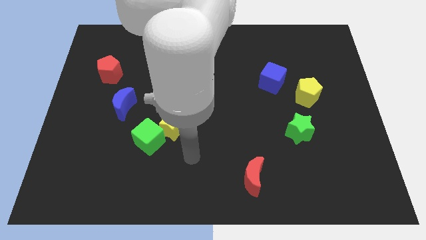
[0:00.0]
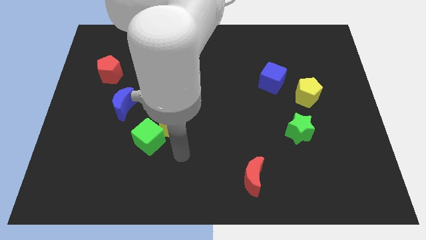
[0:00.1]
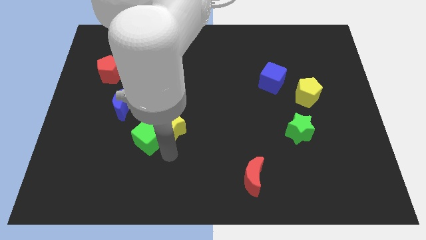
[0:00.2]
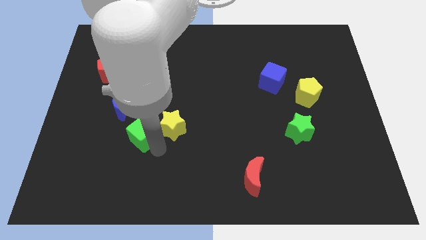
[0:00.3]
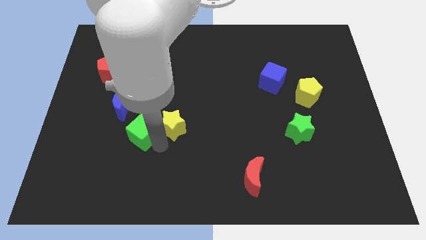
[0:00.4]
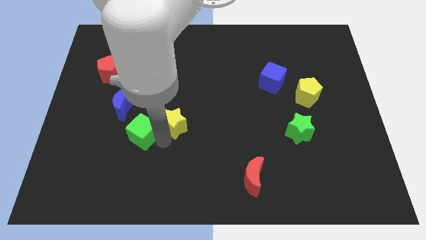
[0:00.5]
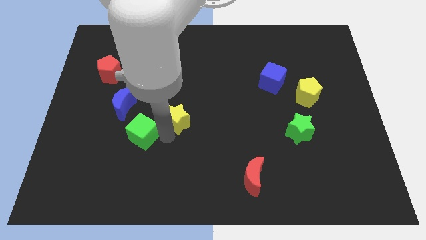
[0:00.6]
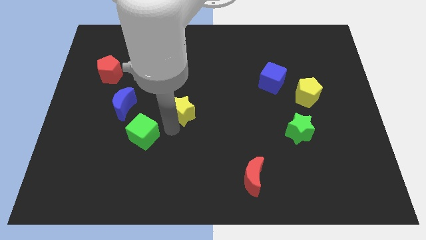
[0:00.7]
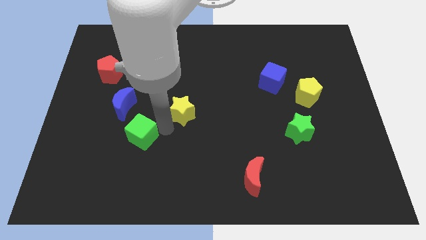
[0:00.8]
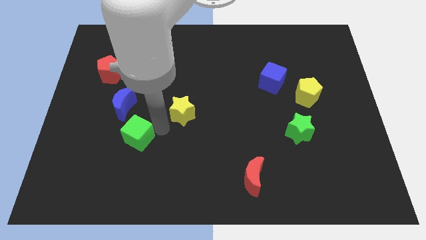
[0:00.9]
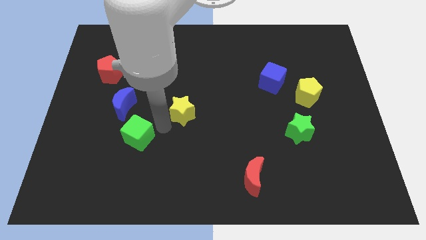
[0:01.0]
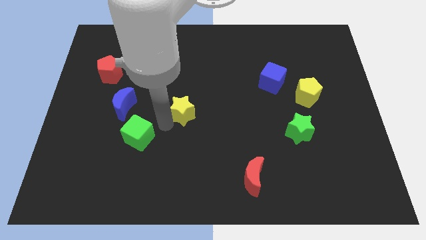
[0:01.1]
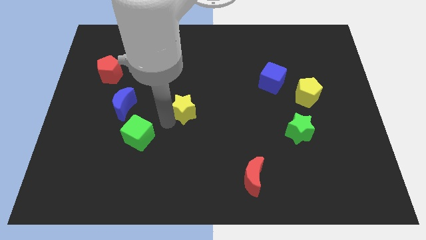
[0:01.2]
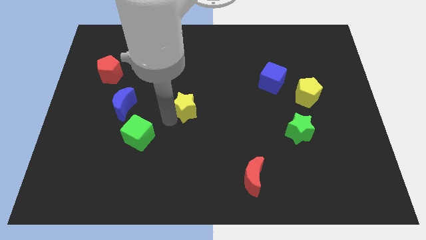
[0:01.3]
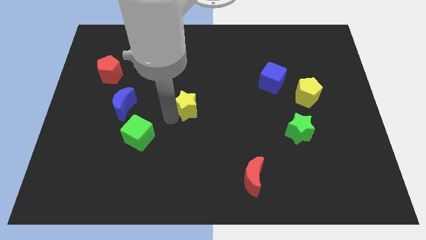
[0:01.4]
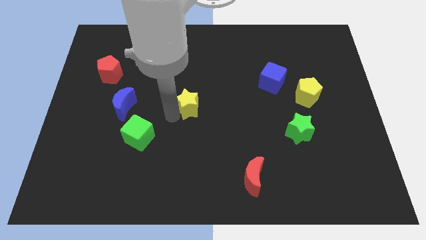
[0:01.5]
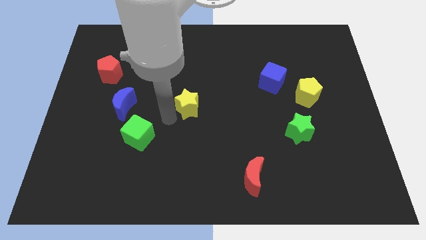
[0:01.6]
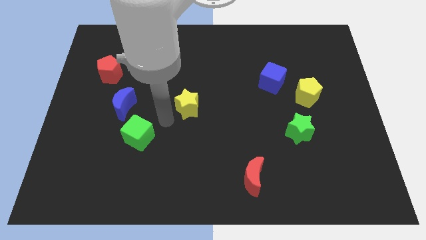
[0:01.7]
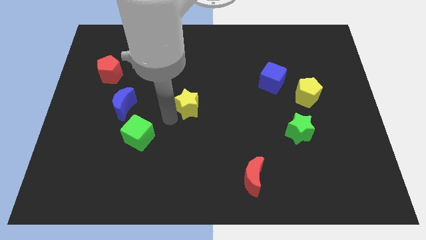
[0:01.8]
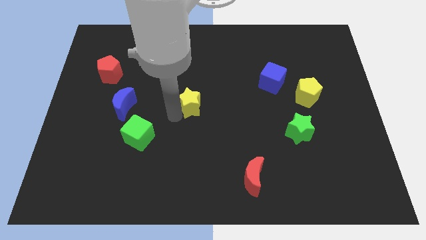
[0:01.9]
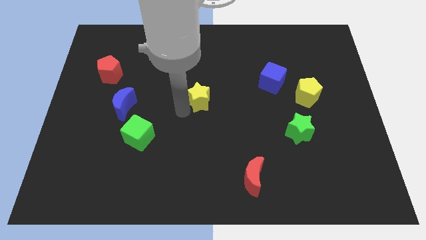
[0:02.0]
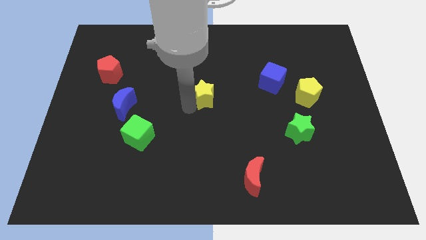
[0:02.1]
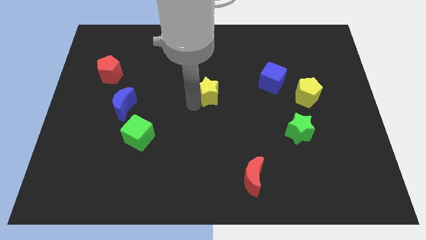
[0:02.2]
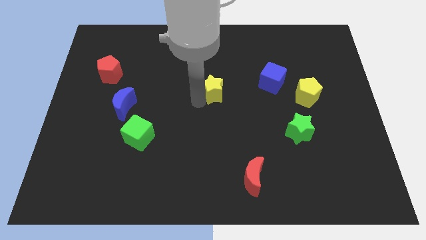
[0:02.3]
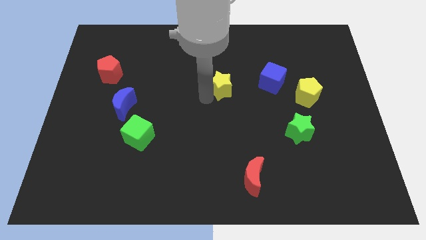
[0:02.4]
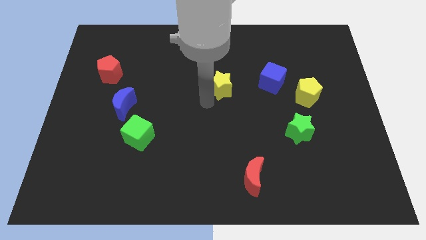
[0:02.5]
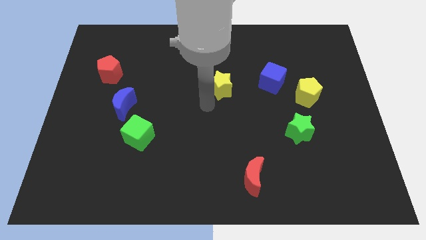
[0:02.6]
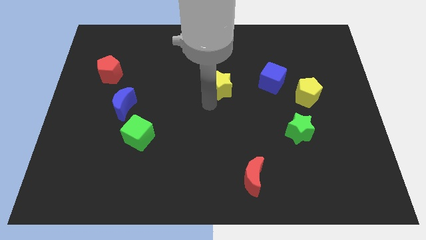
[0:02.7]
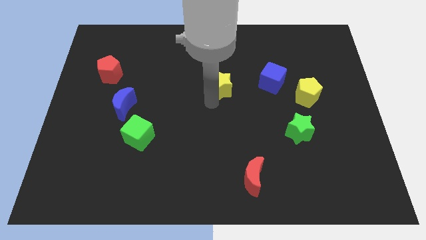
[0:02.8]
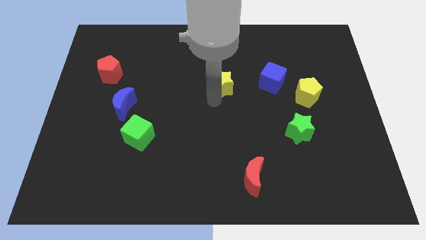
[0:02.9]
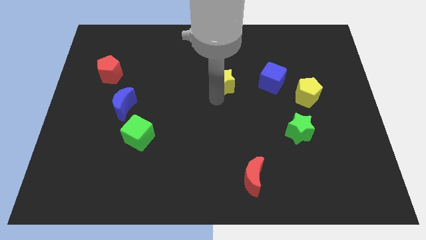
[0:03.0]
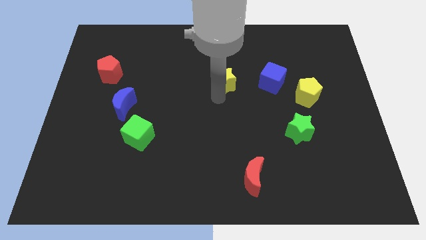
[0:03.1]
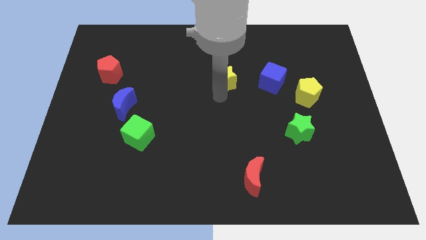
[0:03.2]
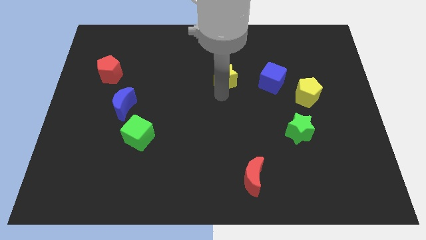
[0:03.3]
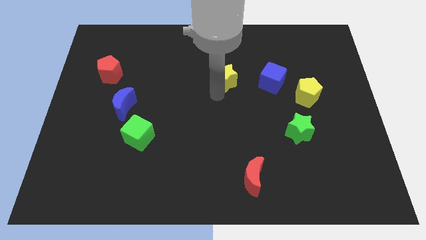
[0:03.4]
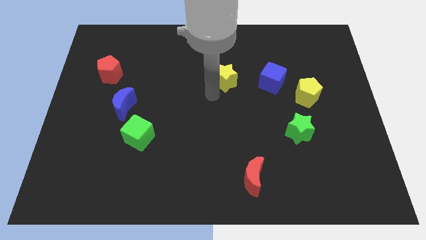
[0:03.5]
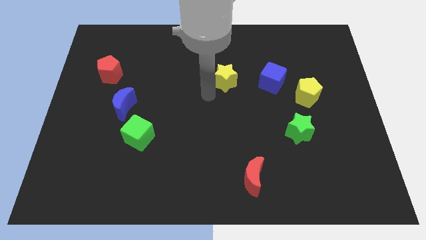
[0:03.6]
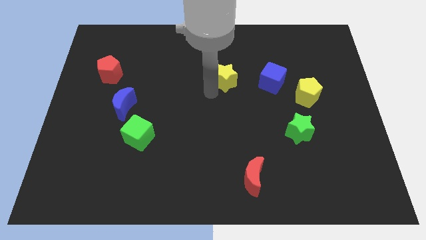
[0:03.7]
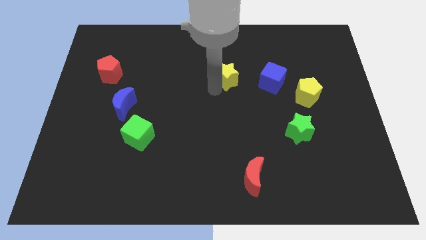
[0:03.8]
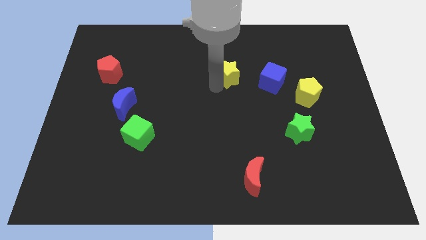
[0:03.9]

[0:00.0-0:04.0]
push the yellow star upwards and right diagonally

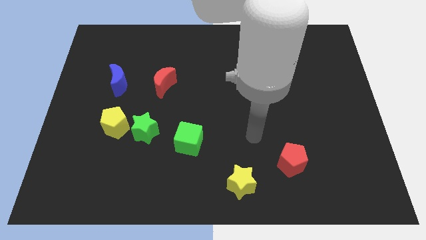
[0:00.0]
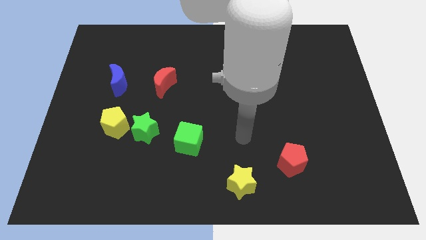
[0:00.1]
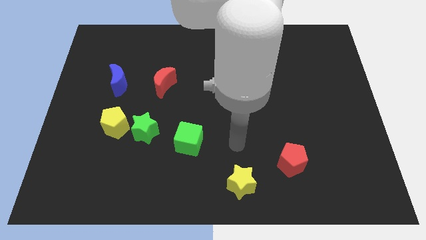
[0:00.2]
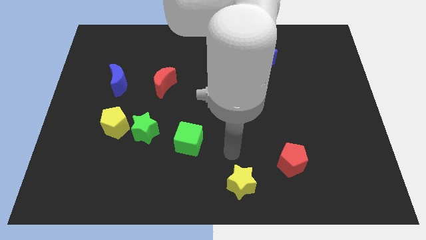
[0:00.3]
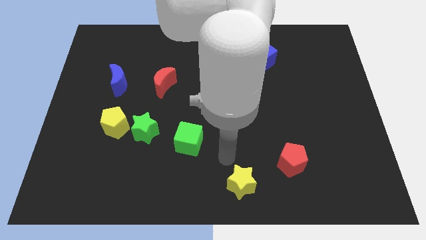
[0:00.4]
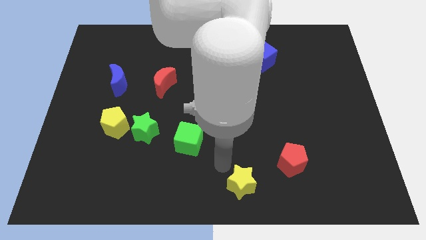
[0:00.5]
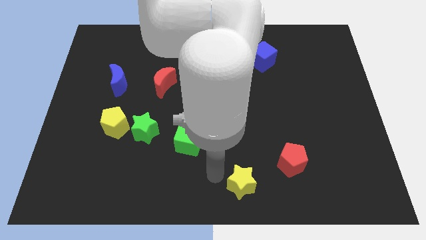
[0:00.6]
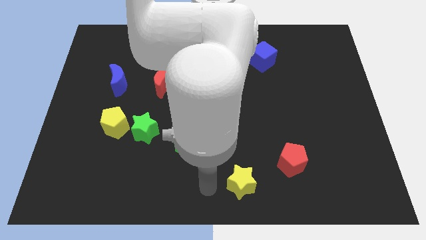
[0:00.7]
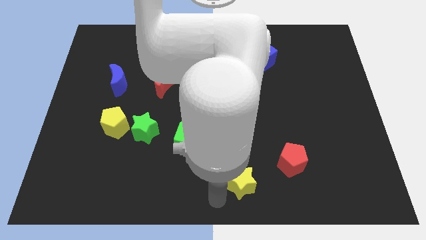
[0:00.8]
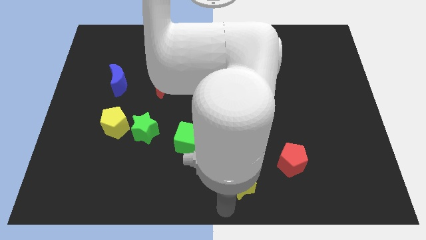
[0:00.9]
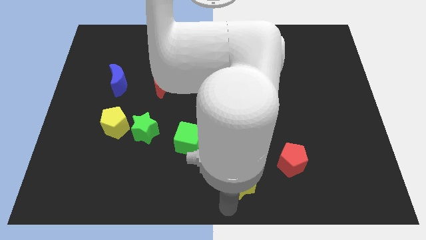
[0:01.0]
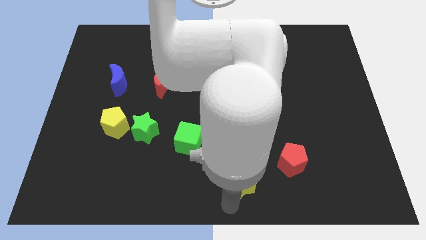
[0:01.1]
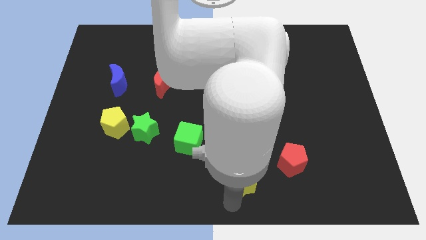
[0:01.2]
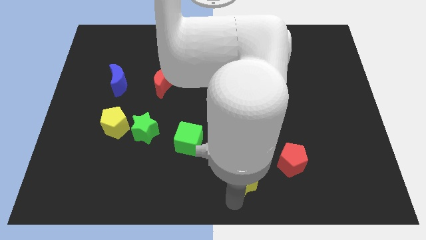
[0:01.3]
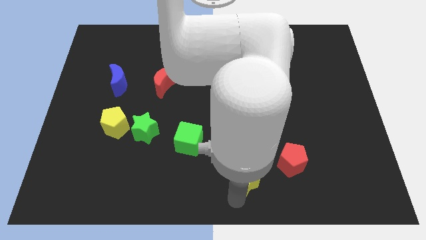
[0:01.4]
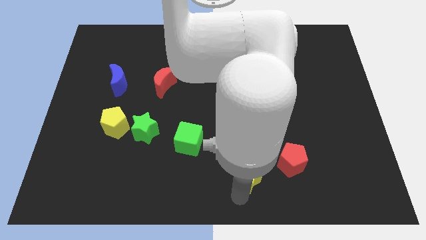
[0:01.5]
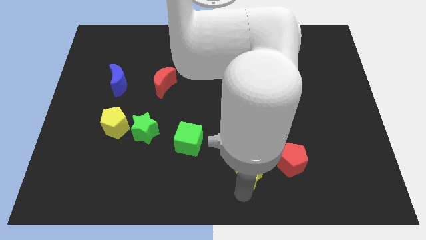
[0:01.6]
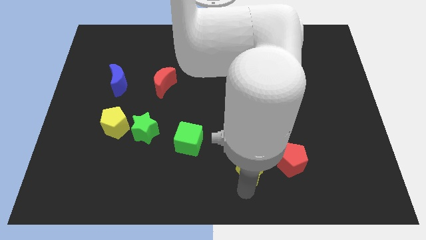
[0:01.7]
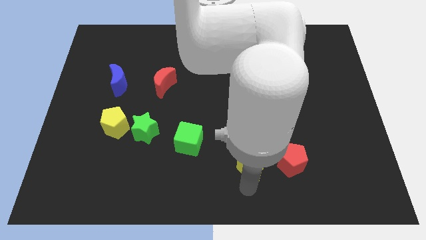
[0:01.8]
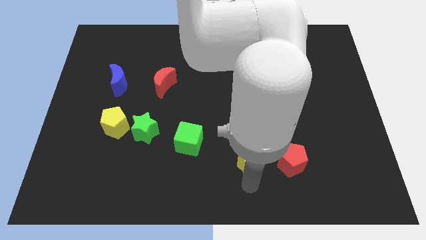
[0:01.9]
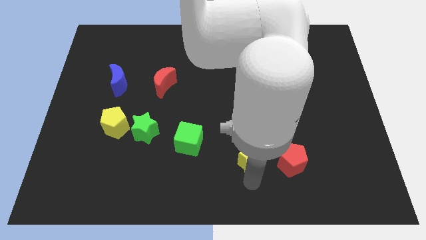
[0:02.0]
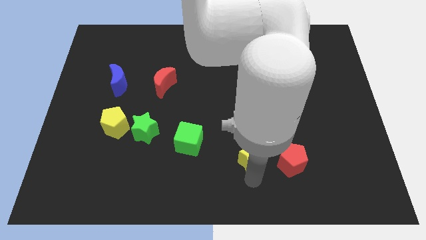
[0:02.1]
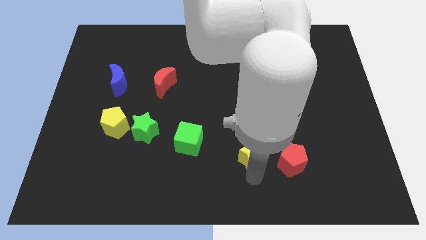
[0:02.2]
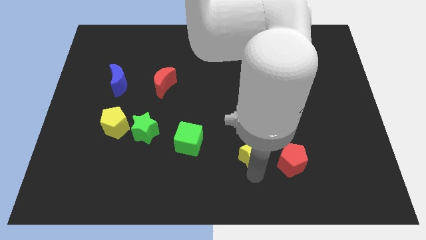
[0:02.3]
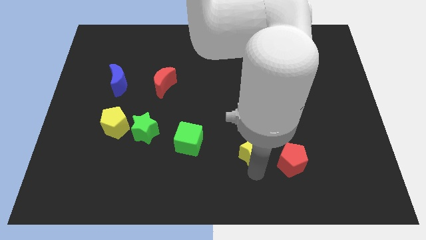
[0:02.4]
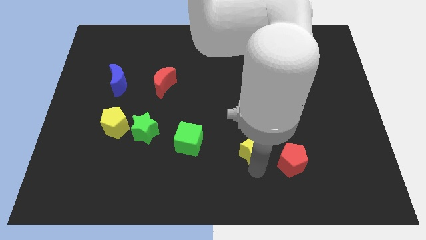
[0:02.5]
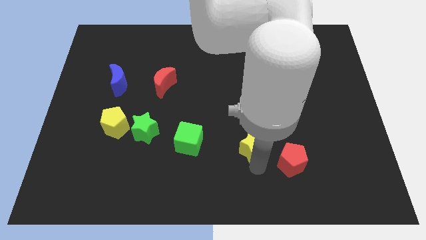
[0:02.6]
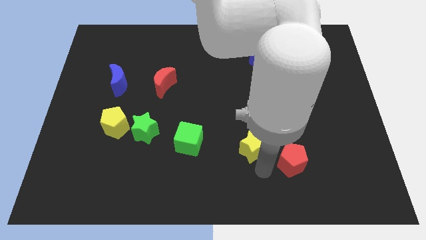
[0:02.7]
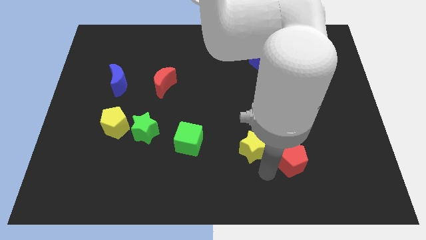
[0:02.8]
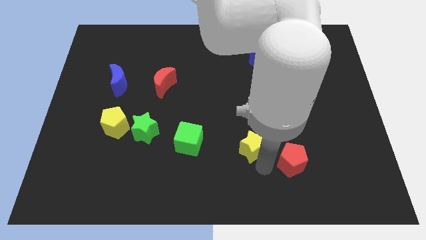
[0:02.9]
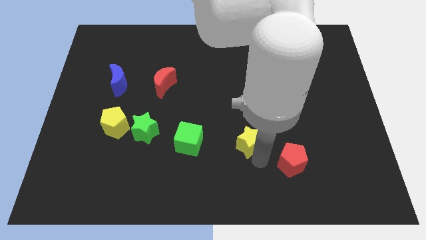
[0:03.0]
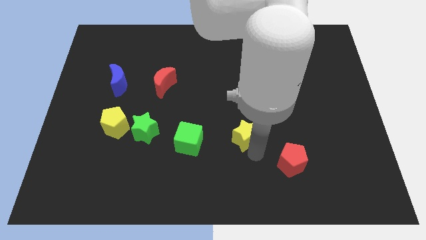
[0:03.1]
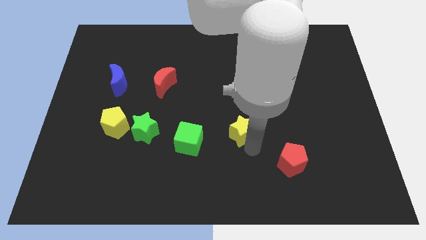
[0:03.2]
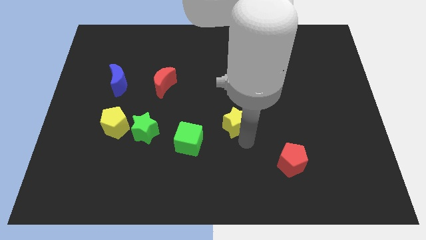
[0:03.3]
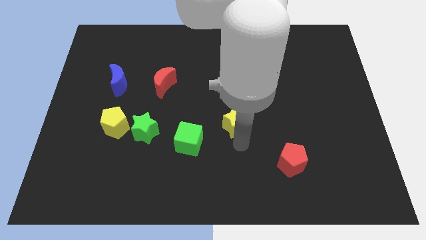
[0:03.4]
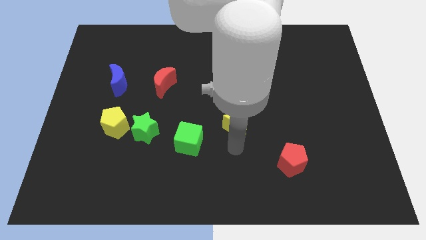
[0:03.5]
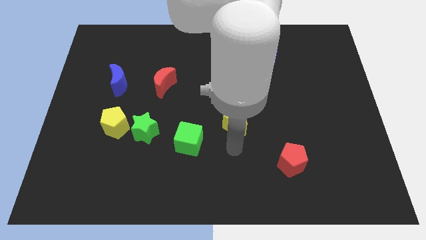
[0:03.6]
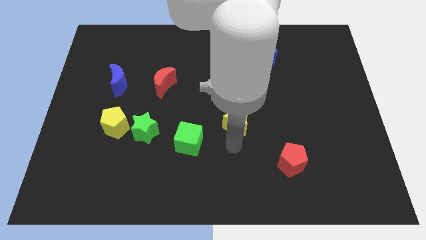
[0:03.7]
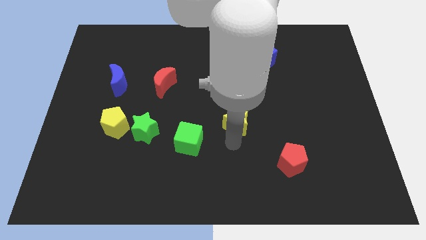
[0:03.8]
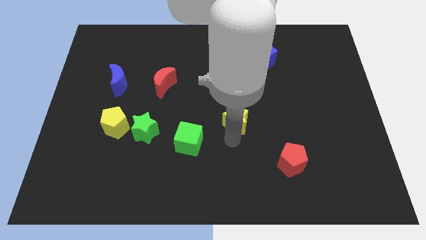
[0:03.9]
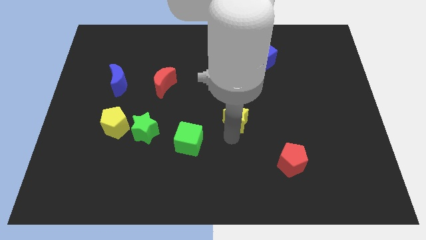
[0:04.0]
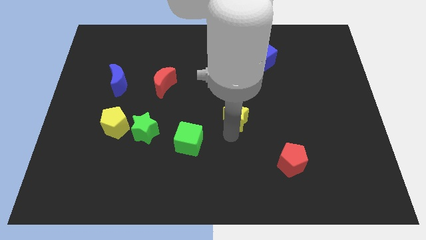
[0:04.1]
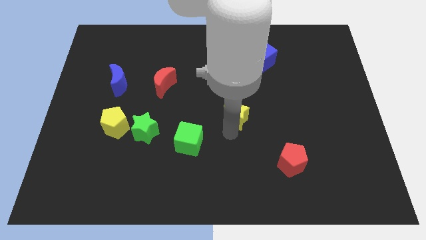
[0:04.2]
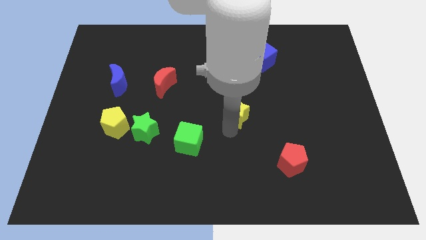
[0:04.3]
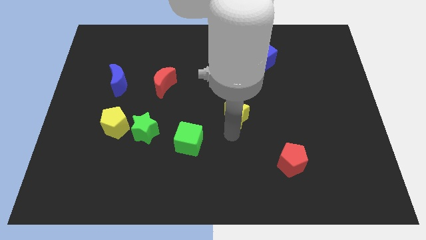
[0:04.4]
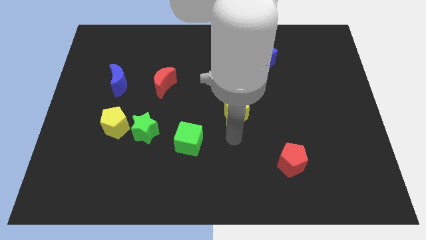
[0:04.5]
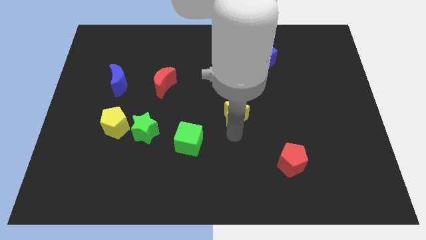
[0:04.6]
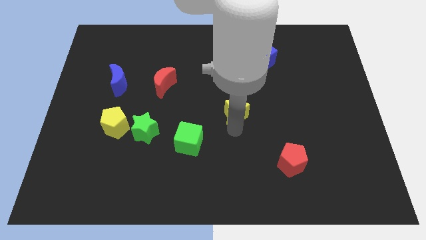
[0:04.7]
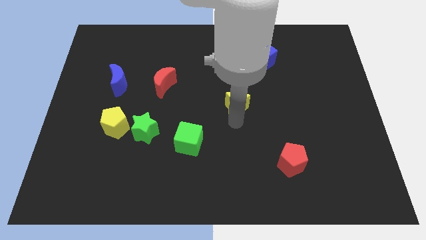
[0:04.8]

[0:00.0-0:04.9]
push the yellow star up
